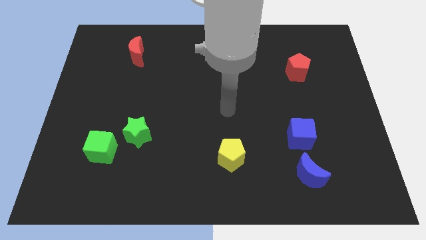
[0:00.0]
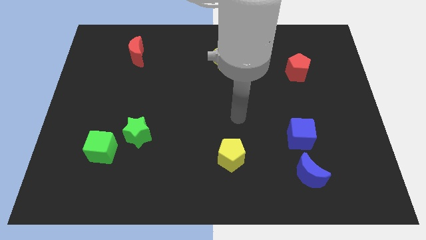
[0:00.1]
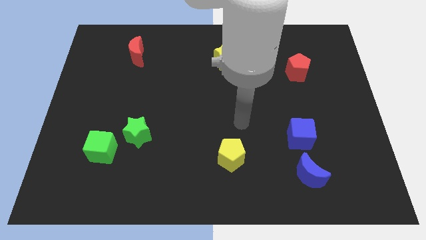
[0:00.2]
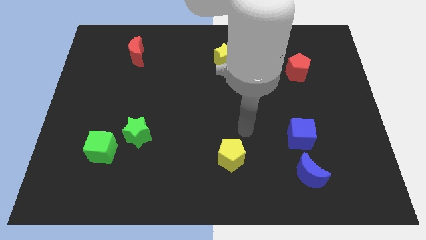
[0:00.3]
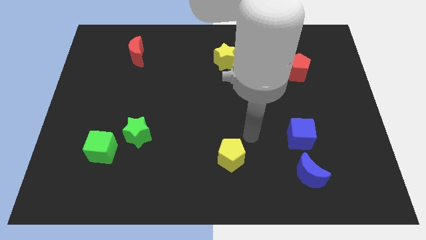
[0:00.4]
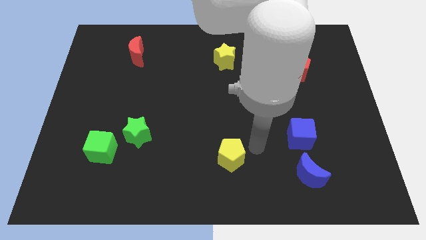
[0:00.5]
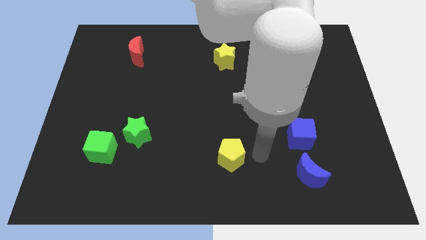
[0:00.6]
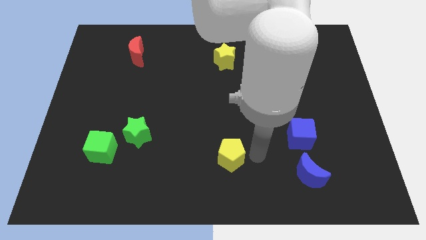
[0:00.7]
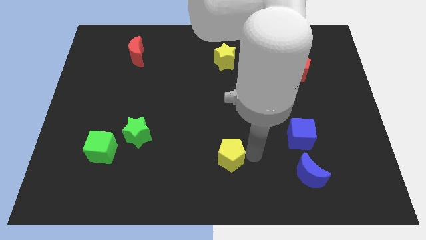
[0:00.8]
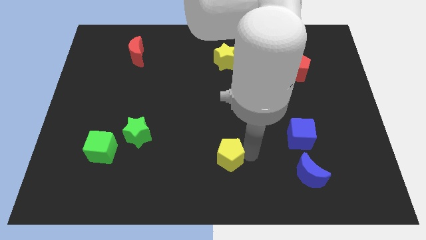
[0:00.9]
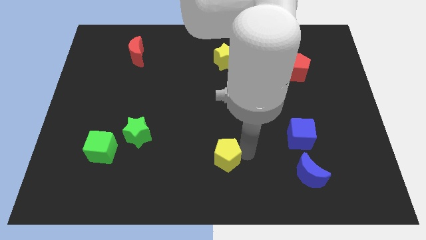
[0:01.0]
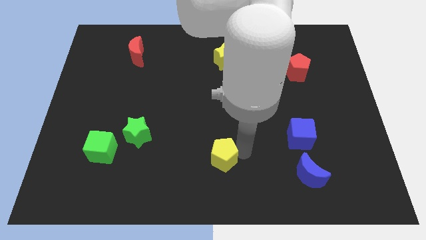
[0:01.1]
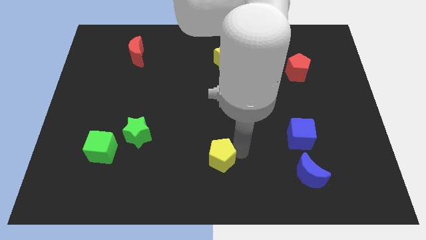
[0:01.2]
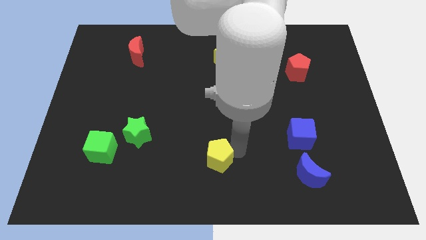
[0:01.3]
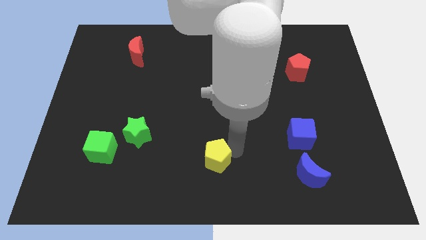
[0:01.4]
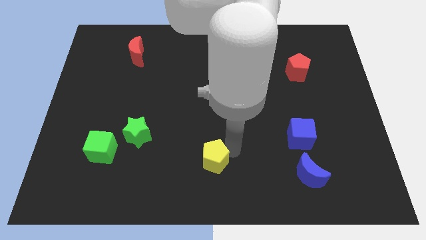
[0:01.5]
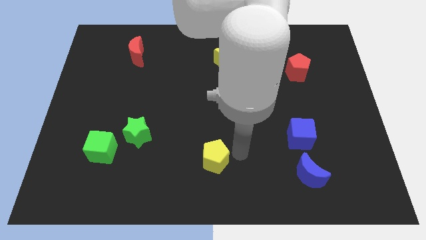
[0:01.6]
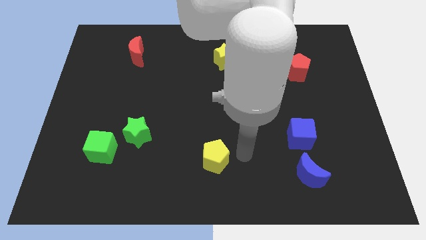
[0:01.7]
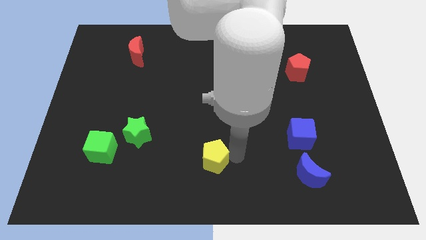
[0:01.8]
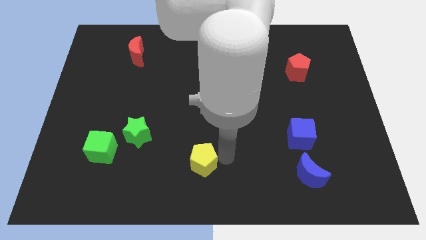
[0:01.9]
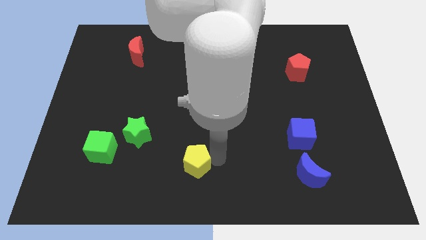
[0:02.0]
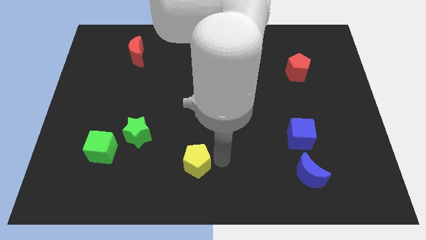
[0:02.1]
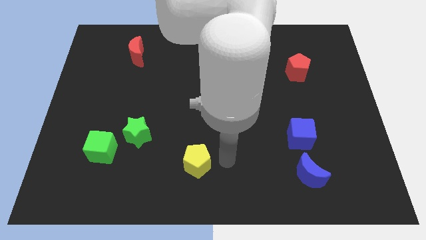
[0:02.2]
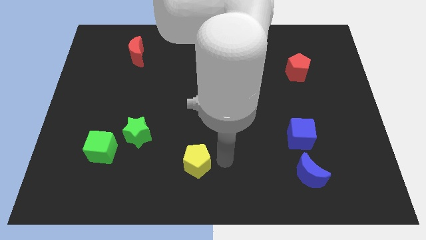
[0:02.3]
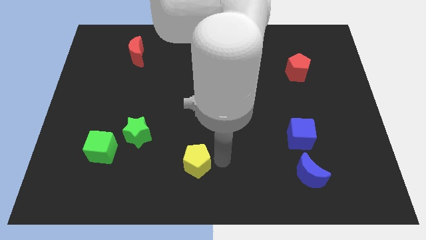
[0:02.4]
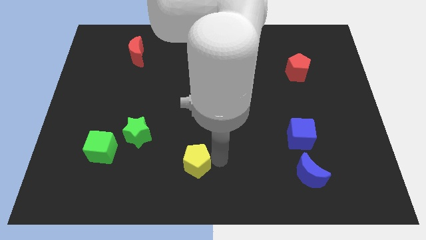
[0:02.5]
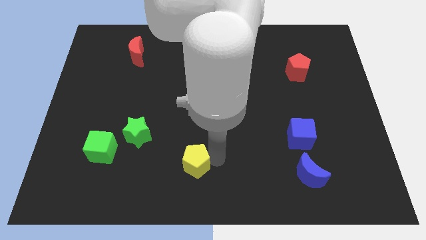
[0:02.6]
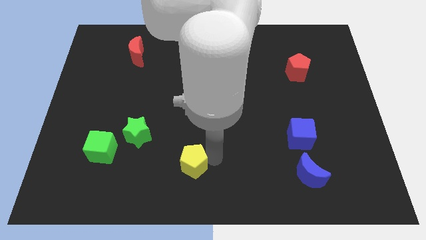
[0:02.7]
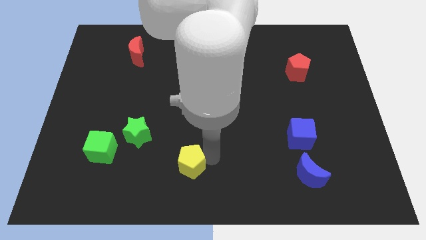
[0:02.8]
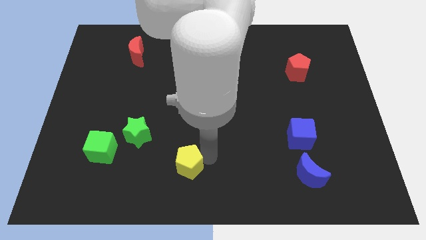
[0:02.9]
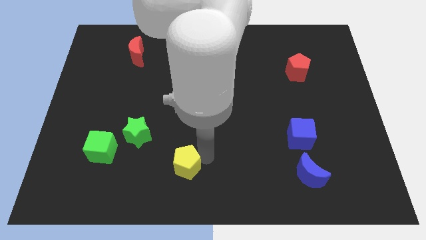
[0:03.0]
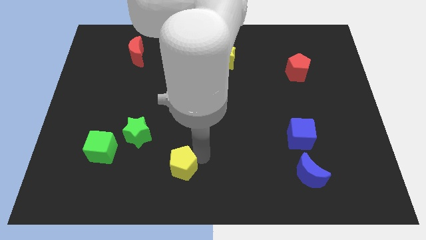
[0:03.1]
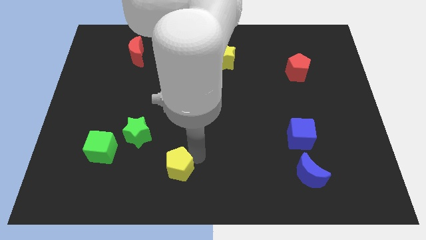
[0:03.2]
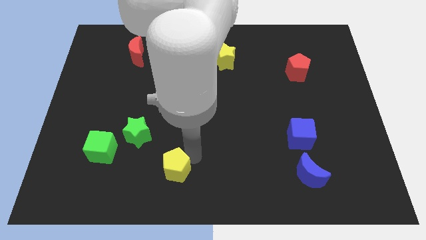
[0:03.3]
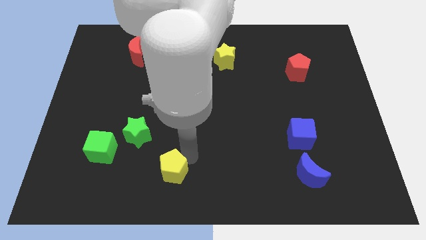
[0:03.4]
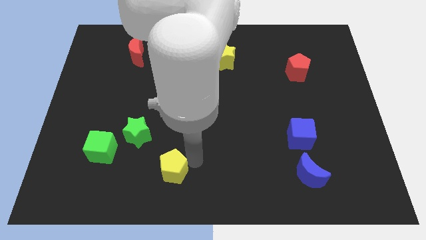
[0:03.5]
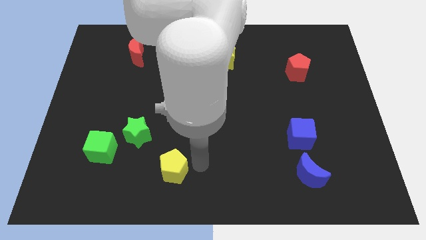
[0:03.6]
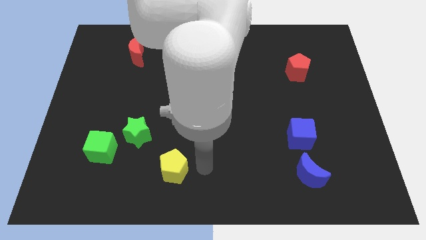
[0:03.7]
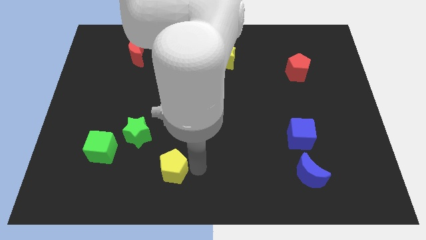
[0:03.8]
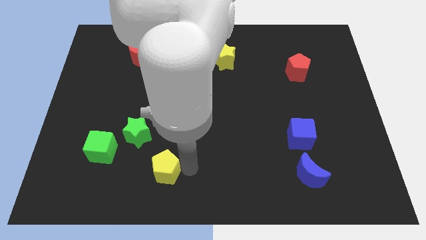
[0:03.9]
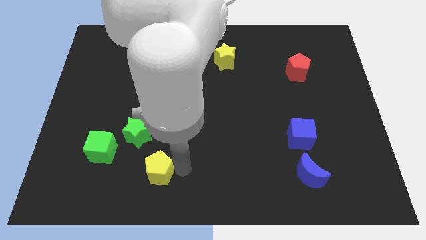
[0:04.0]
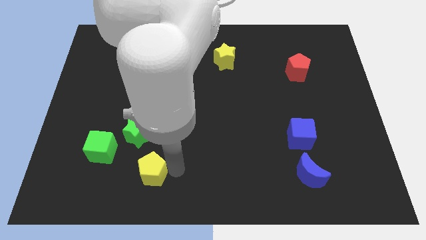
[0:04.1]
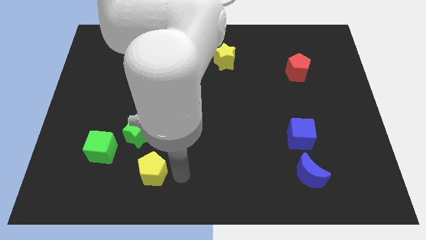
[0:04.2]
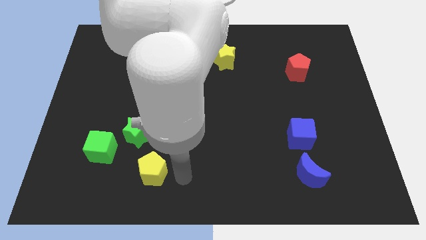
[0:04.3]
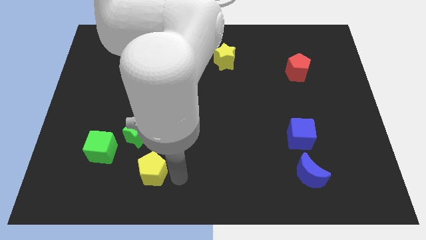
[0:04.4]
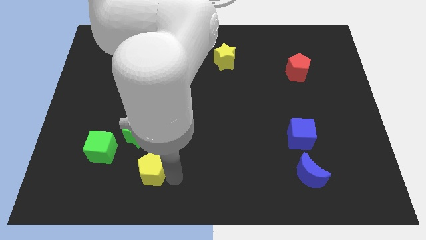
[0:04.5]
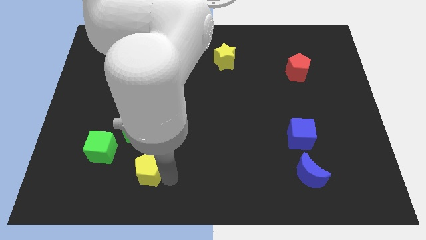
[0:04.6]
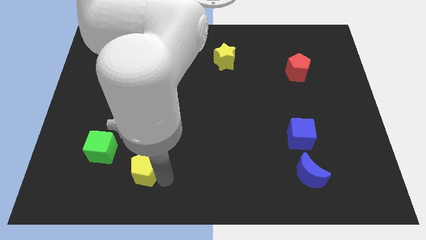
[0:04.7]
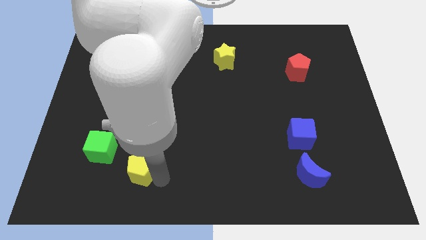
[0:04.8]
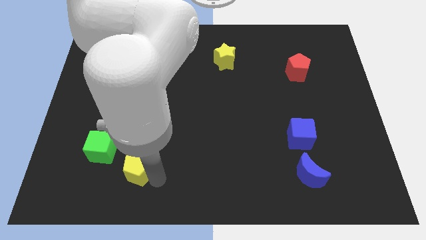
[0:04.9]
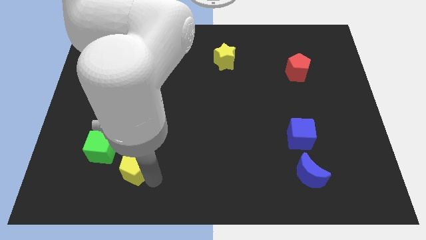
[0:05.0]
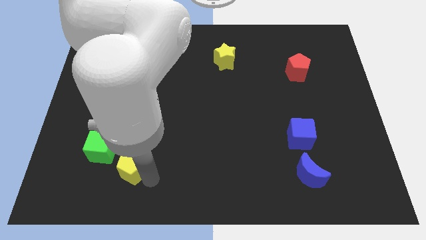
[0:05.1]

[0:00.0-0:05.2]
push the yellow pentagon to the left

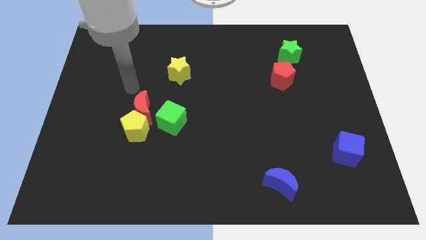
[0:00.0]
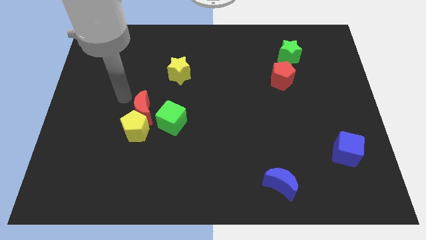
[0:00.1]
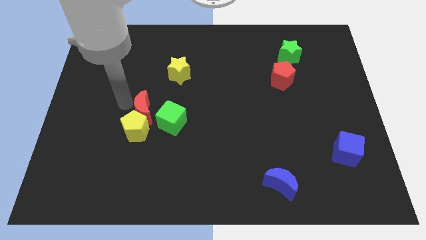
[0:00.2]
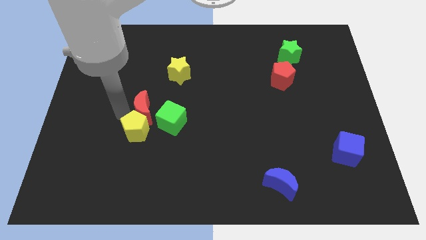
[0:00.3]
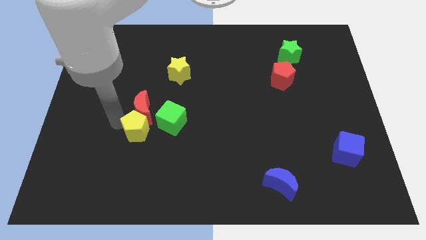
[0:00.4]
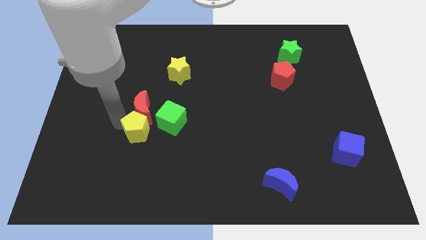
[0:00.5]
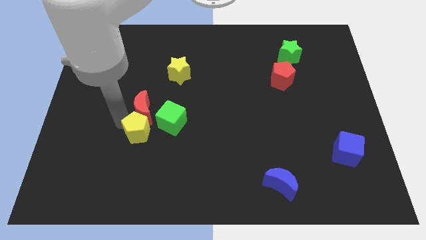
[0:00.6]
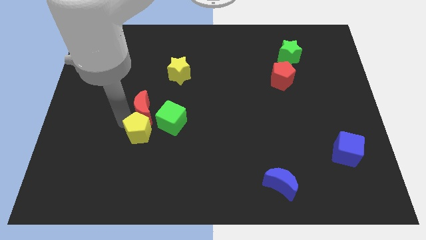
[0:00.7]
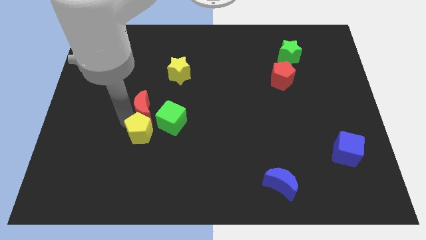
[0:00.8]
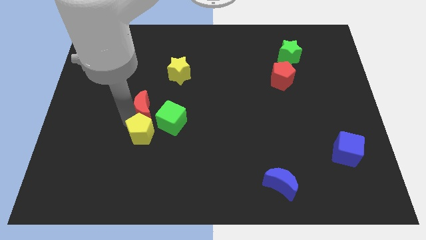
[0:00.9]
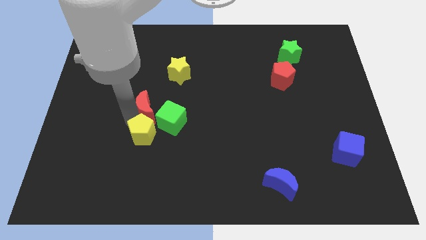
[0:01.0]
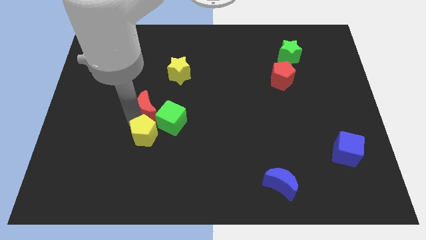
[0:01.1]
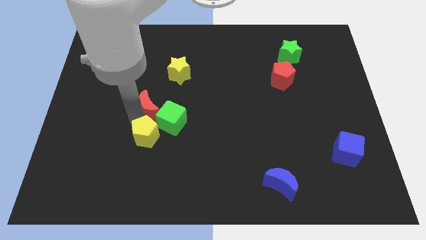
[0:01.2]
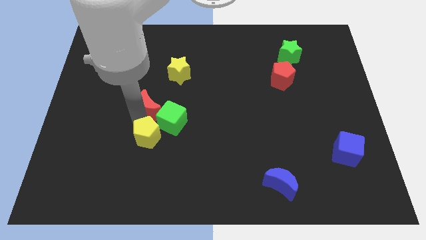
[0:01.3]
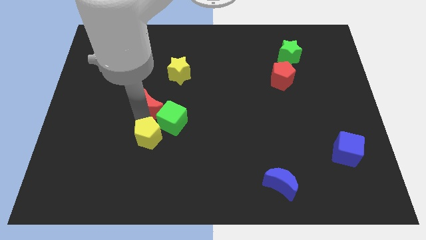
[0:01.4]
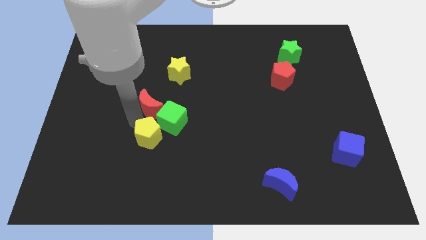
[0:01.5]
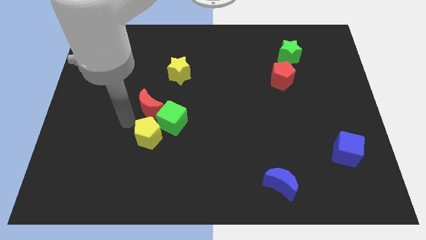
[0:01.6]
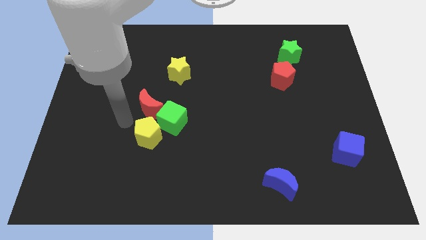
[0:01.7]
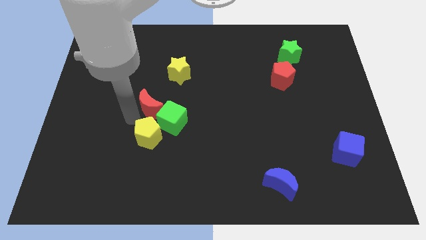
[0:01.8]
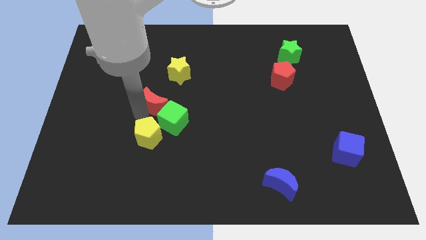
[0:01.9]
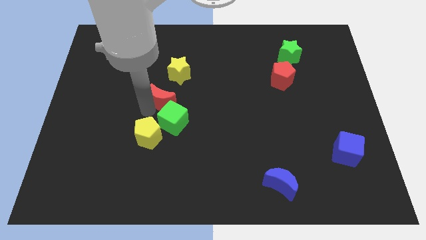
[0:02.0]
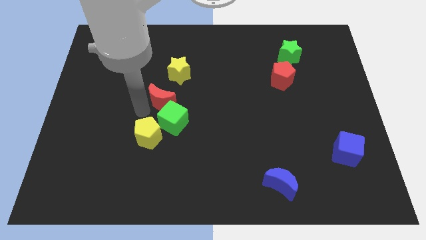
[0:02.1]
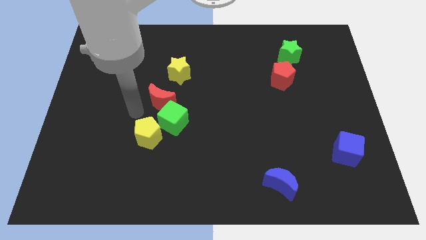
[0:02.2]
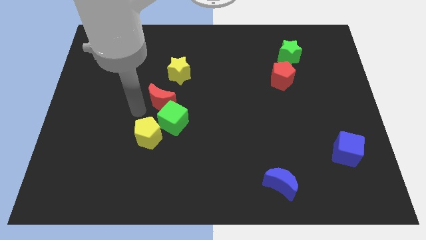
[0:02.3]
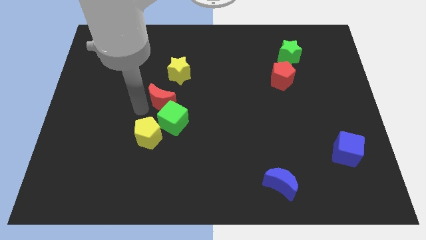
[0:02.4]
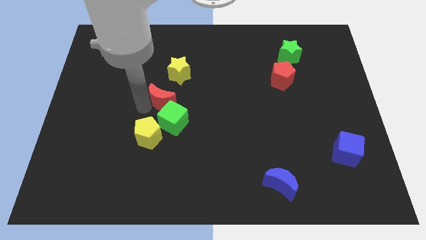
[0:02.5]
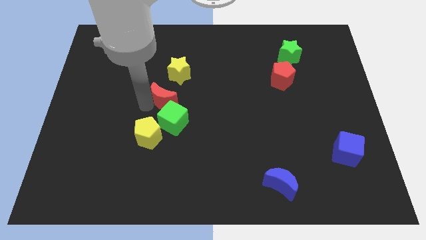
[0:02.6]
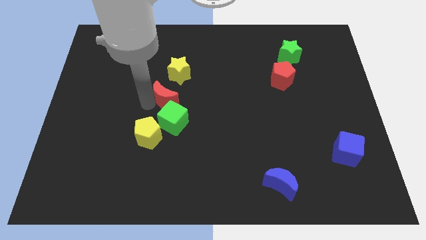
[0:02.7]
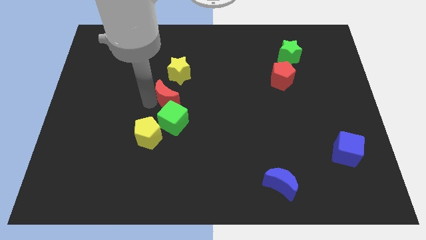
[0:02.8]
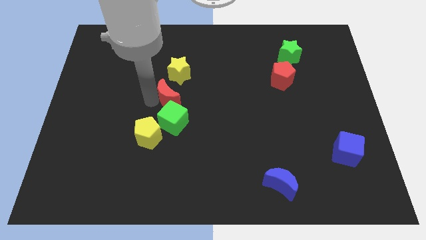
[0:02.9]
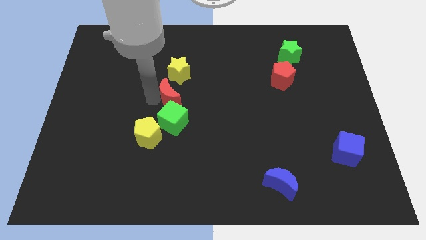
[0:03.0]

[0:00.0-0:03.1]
slightly move the red moon diagonally upwards and to the right
